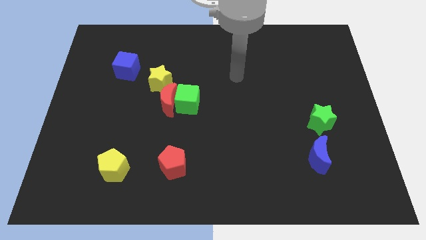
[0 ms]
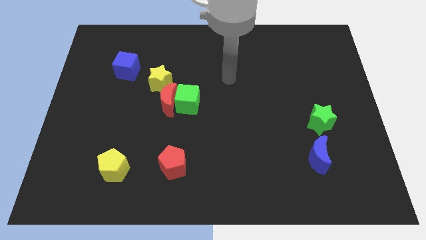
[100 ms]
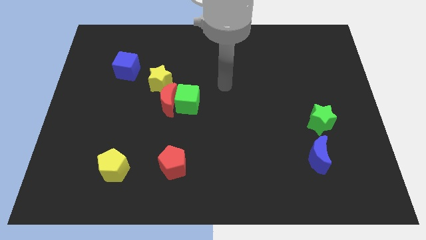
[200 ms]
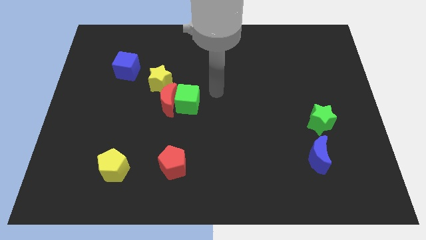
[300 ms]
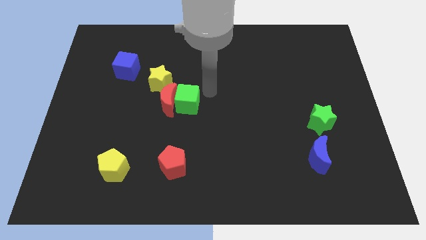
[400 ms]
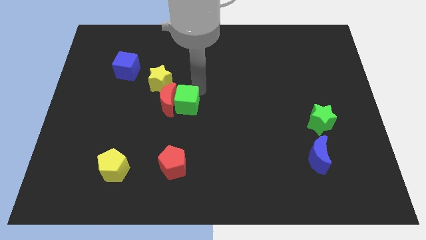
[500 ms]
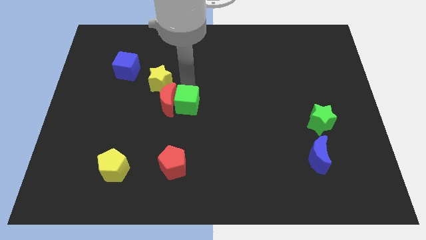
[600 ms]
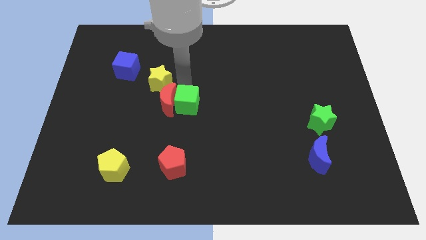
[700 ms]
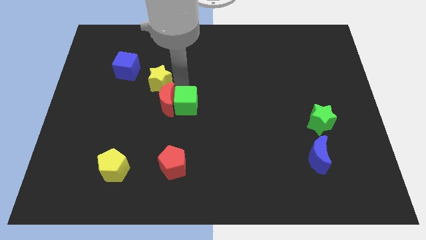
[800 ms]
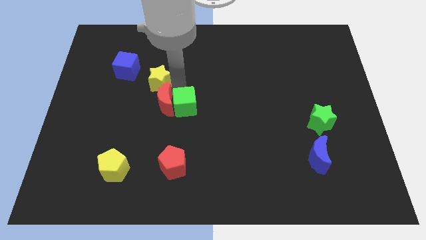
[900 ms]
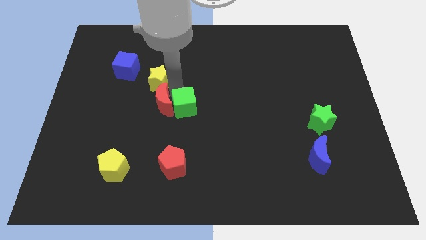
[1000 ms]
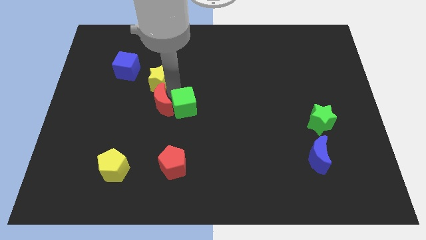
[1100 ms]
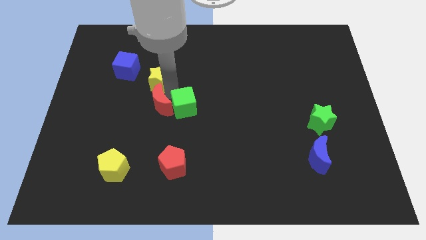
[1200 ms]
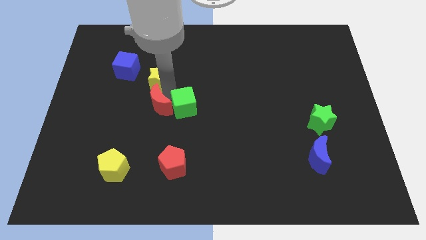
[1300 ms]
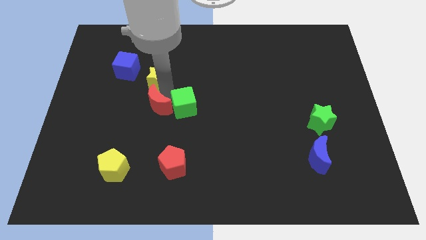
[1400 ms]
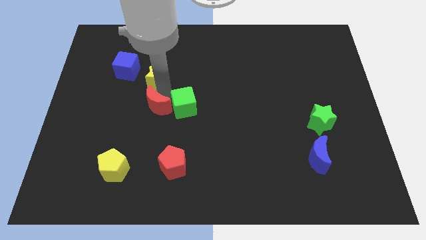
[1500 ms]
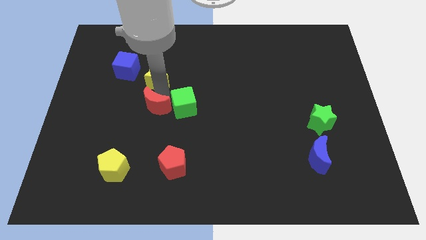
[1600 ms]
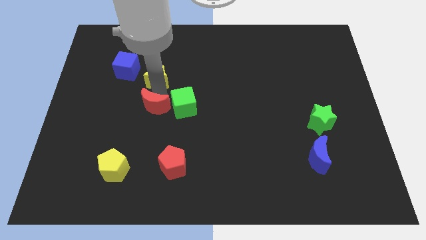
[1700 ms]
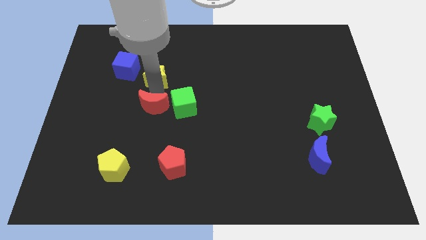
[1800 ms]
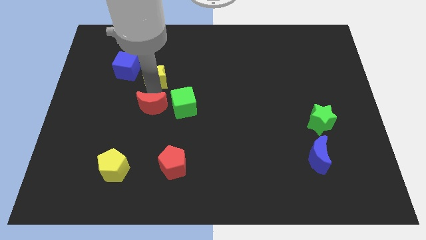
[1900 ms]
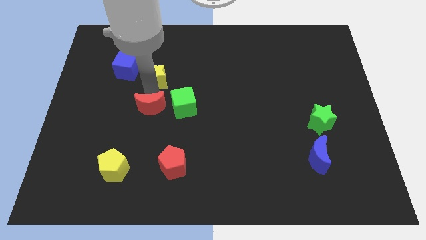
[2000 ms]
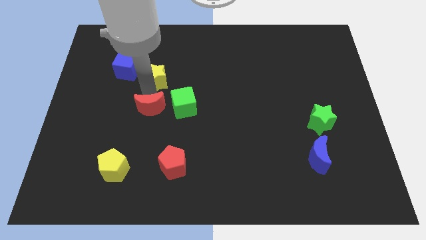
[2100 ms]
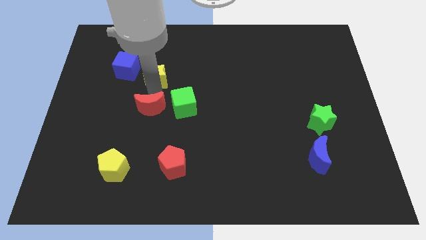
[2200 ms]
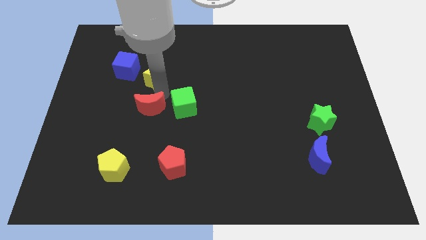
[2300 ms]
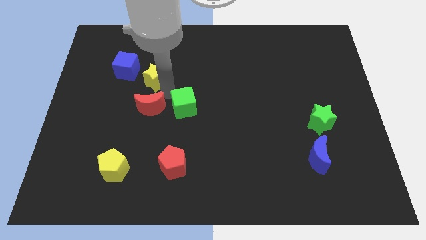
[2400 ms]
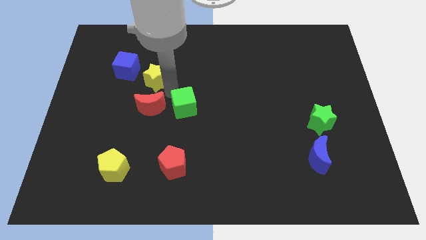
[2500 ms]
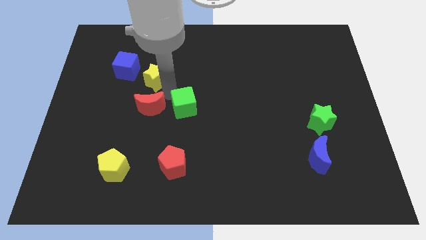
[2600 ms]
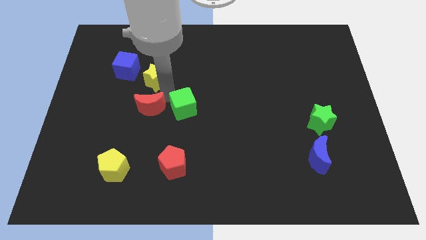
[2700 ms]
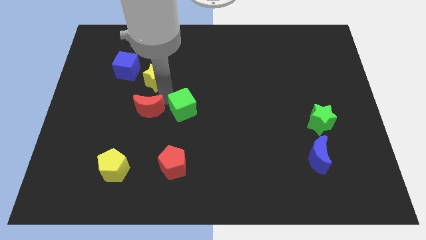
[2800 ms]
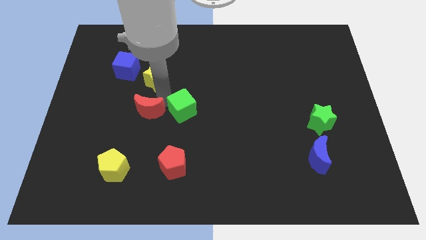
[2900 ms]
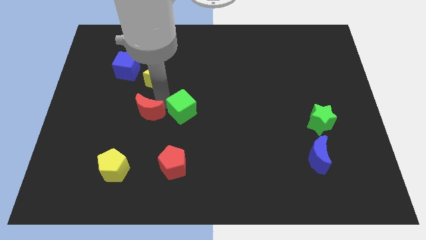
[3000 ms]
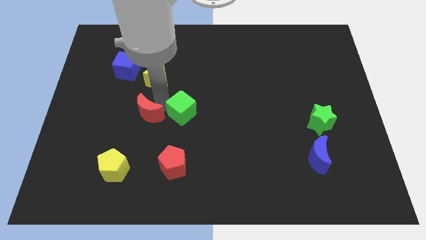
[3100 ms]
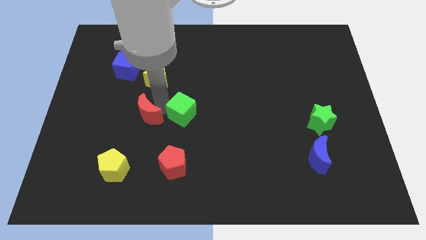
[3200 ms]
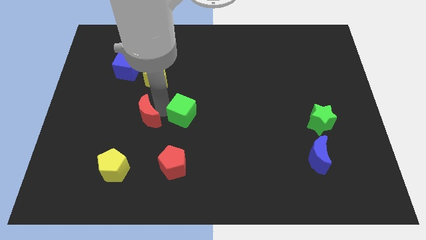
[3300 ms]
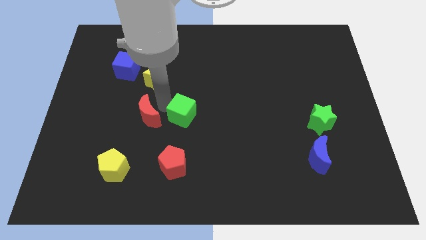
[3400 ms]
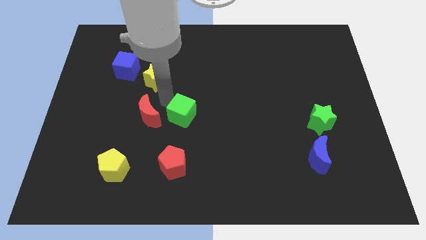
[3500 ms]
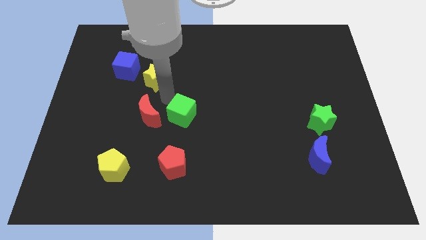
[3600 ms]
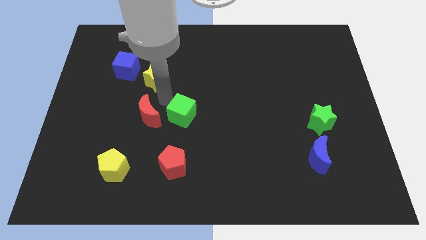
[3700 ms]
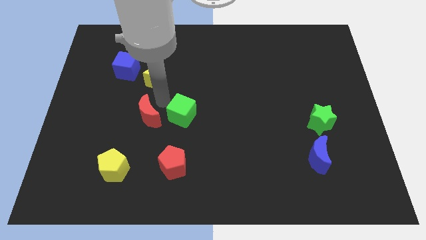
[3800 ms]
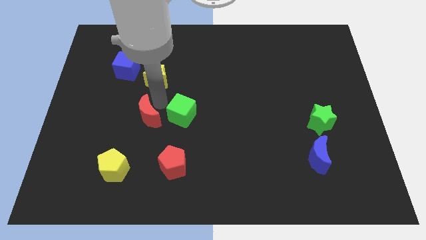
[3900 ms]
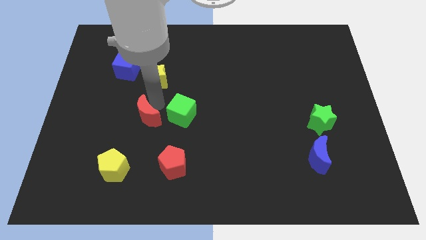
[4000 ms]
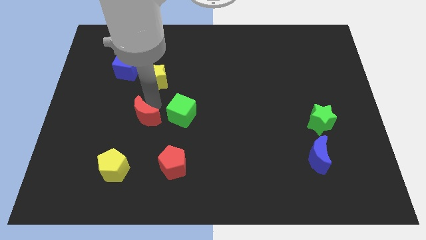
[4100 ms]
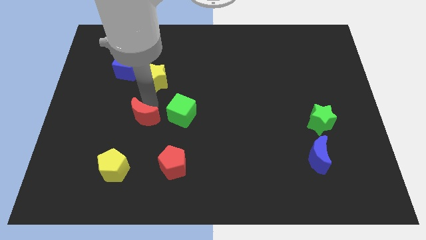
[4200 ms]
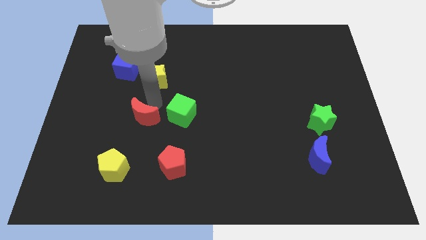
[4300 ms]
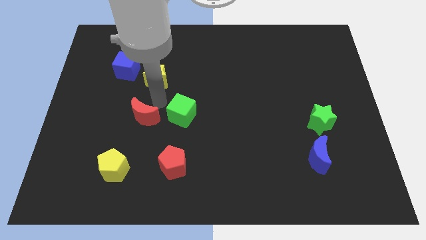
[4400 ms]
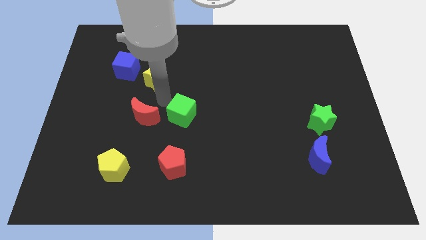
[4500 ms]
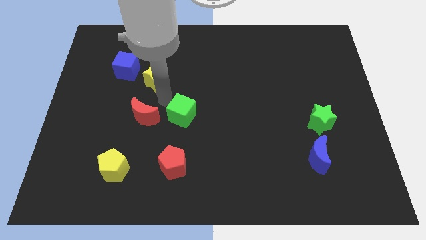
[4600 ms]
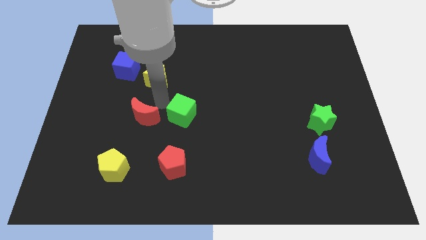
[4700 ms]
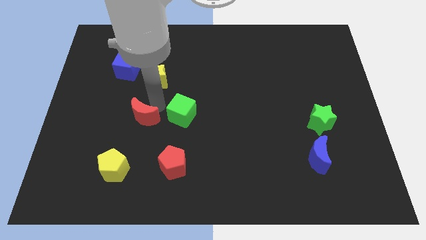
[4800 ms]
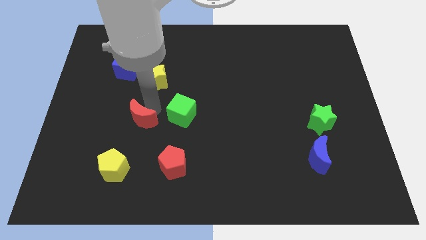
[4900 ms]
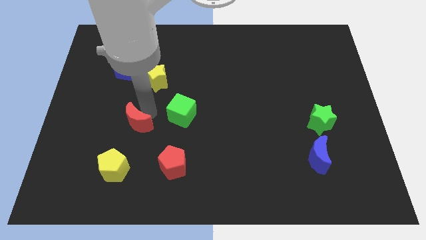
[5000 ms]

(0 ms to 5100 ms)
pull the red moon apart from the green cube and yellow star

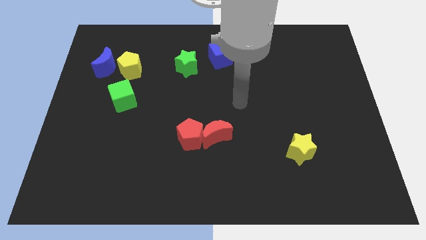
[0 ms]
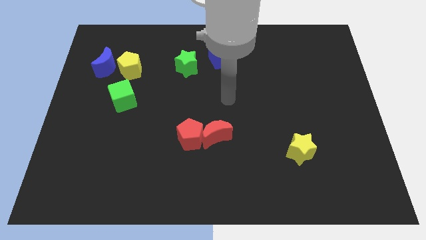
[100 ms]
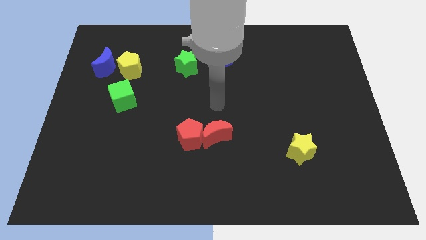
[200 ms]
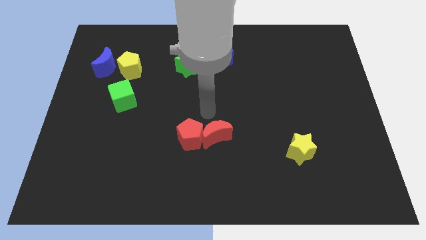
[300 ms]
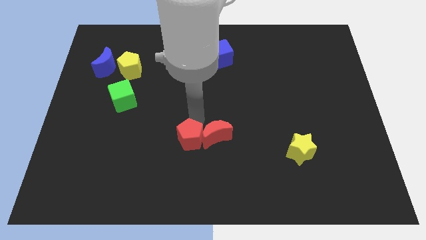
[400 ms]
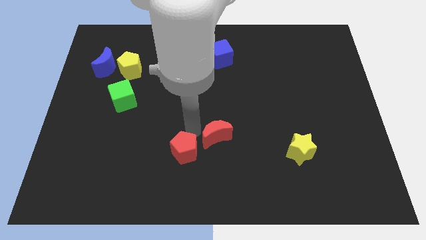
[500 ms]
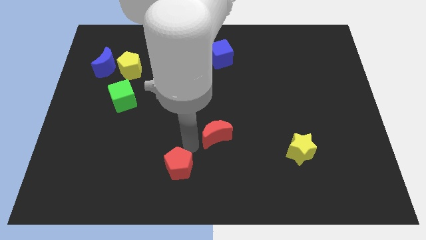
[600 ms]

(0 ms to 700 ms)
separate the red moon from the red pentagon

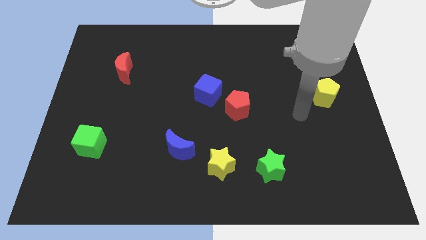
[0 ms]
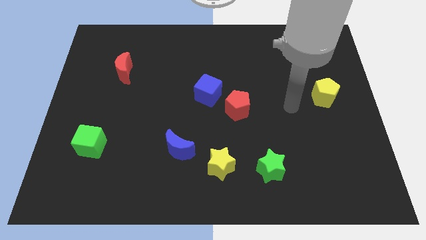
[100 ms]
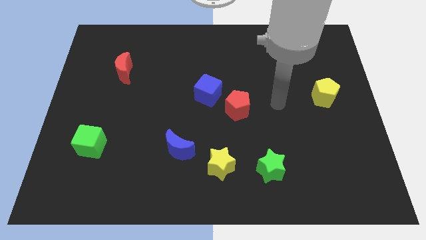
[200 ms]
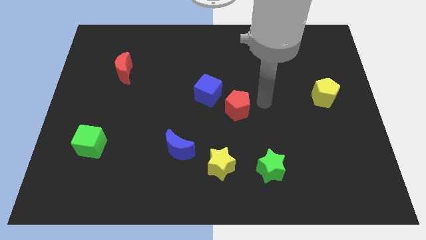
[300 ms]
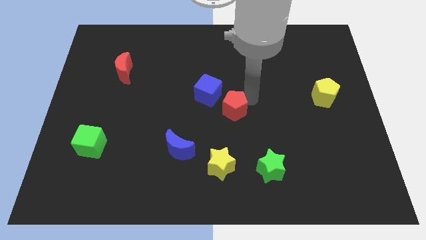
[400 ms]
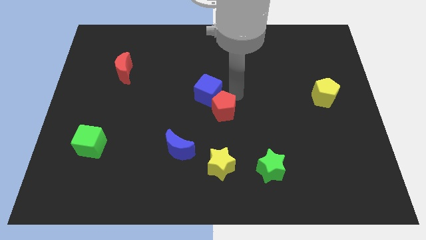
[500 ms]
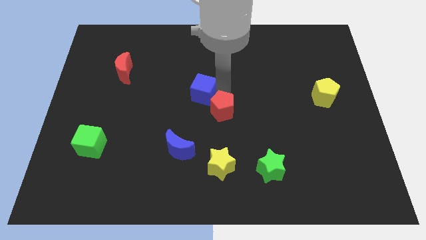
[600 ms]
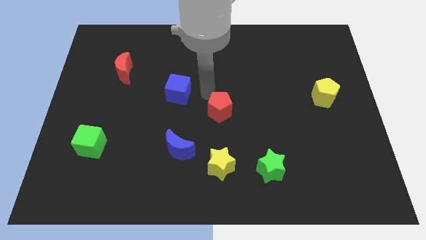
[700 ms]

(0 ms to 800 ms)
pull the red pentagon apart from the blue cube

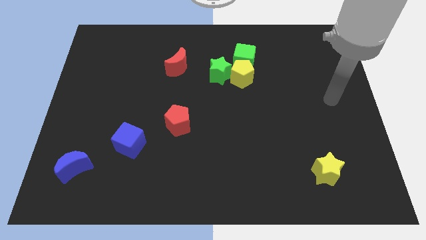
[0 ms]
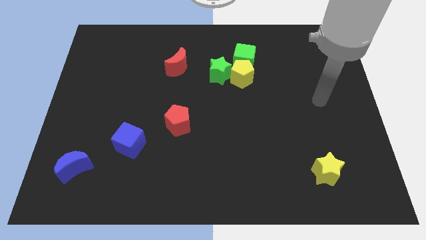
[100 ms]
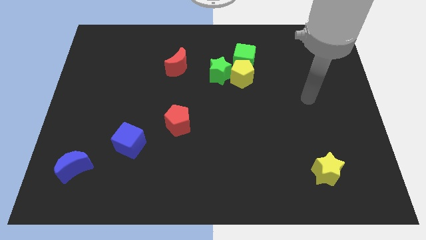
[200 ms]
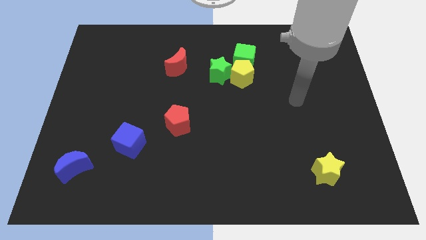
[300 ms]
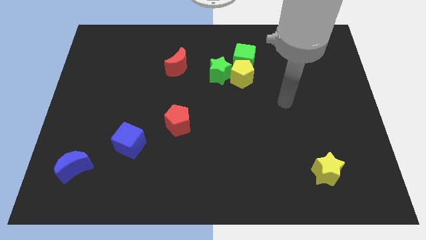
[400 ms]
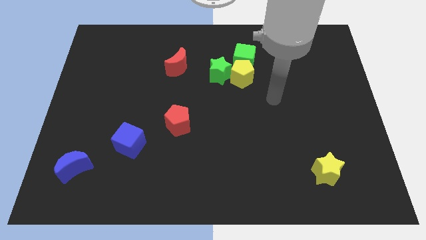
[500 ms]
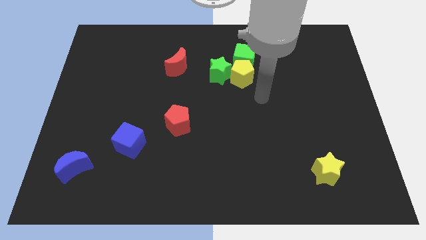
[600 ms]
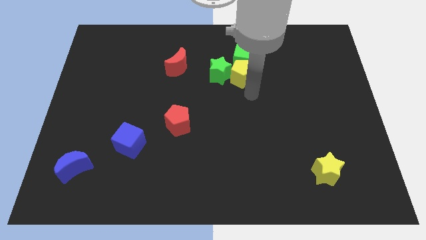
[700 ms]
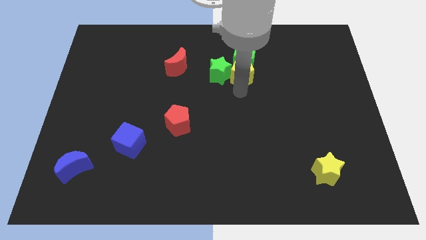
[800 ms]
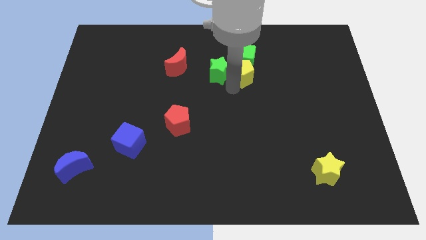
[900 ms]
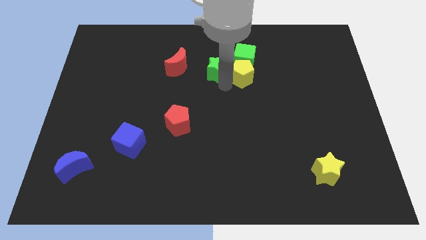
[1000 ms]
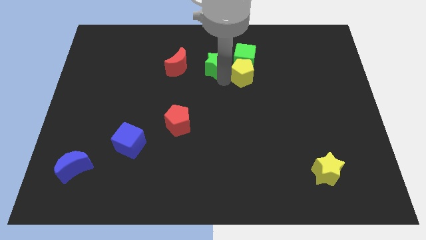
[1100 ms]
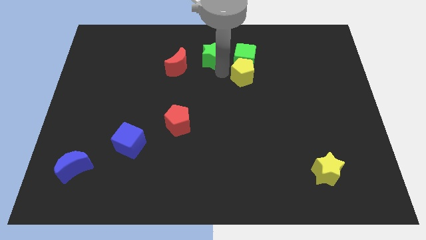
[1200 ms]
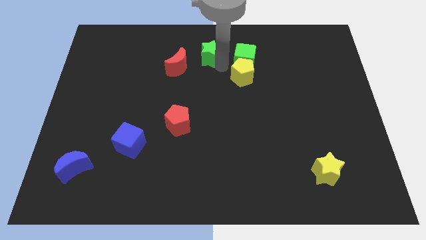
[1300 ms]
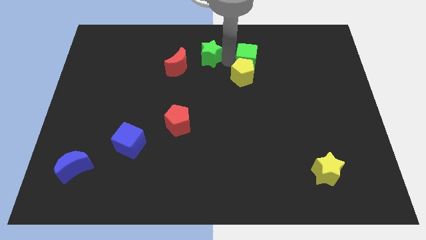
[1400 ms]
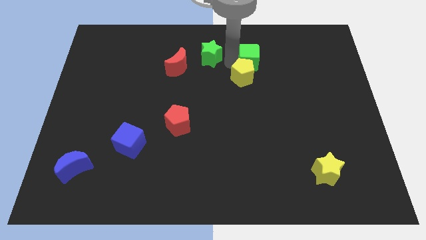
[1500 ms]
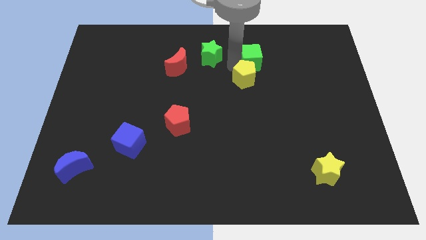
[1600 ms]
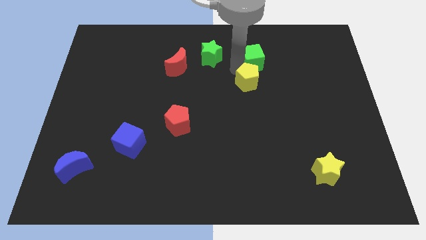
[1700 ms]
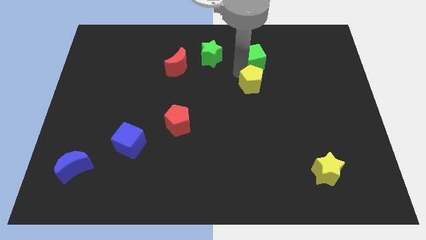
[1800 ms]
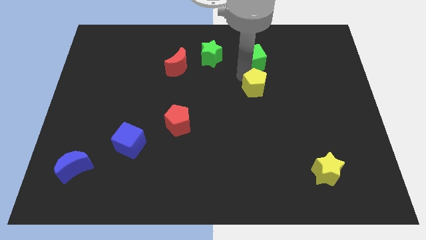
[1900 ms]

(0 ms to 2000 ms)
pull the yellow pentagon apart from the green star and green cube

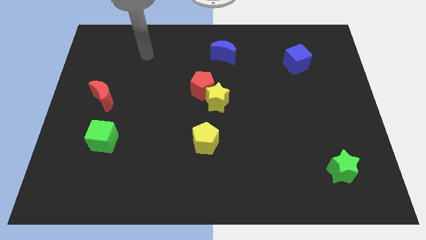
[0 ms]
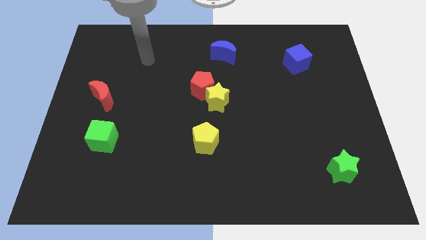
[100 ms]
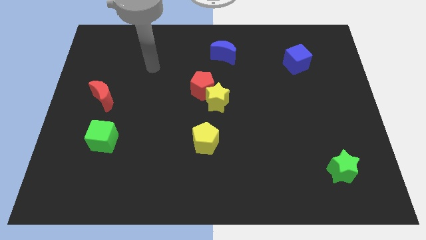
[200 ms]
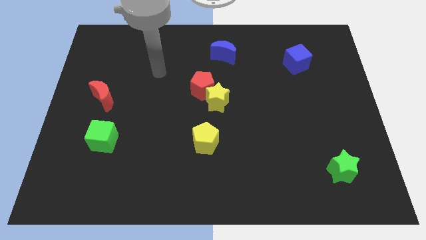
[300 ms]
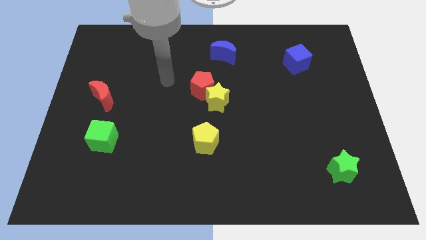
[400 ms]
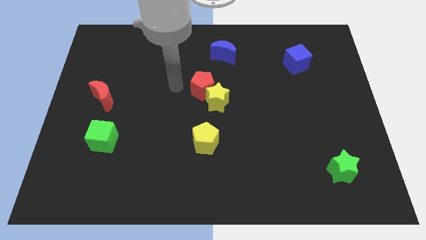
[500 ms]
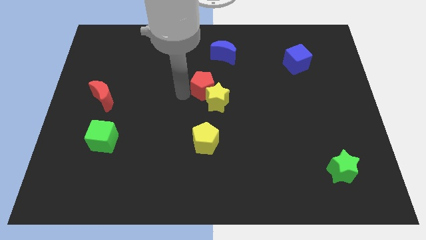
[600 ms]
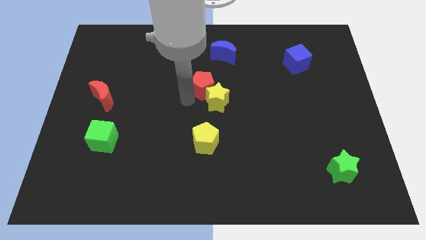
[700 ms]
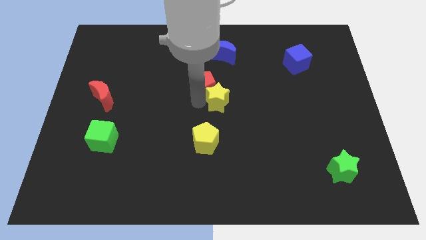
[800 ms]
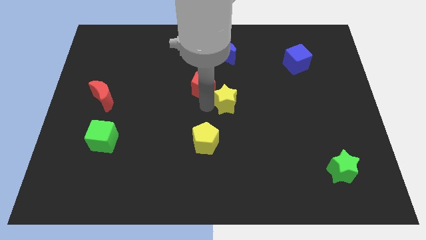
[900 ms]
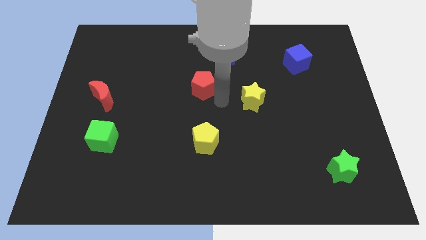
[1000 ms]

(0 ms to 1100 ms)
separate the red pentagon from the yellow star
